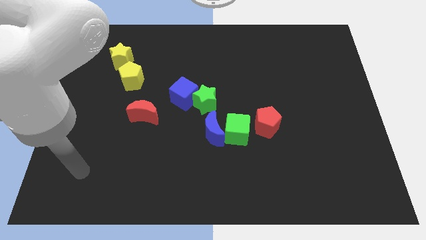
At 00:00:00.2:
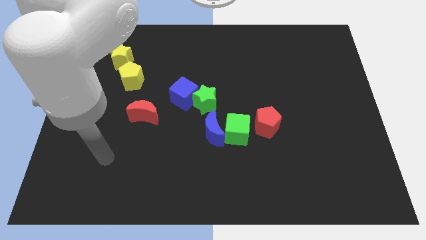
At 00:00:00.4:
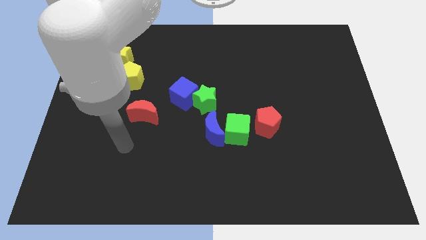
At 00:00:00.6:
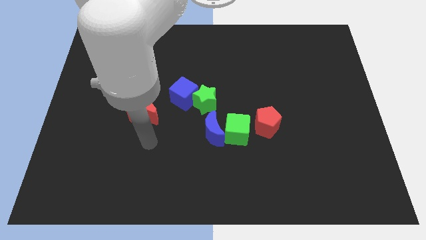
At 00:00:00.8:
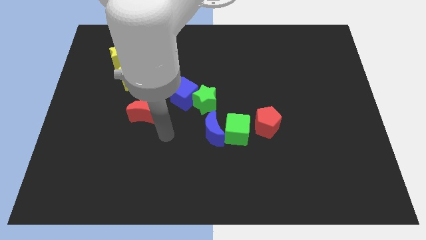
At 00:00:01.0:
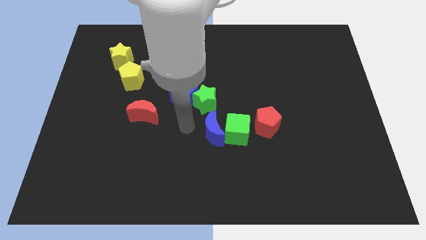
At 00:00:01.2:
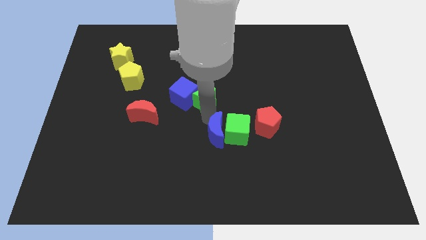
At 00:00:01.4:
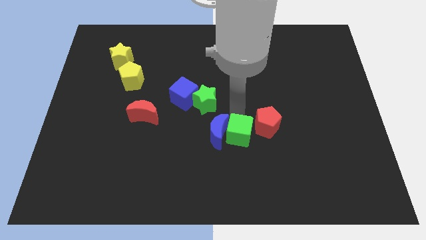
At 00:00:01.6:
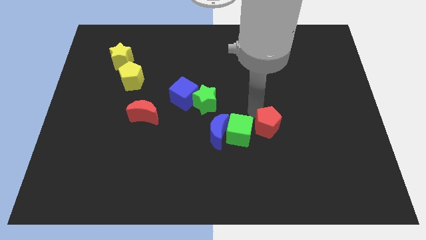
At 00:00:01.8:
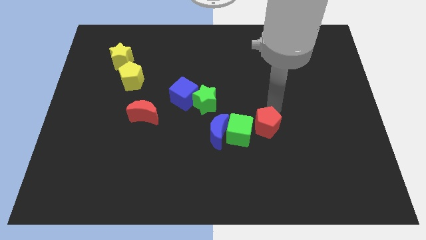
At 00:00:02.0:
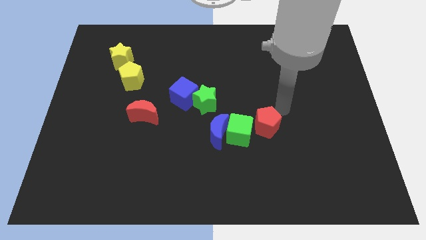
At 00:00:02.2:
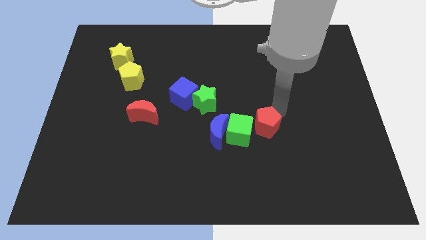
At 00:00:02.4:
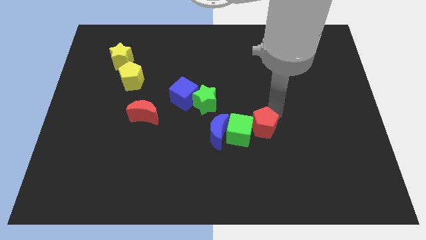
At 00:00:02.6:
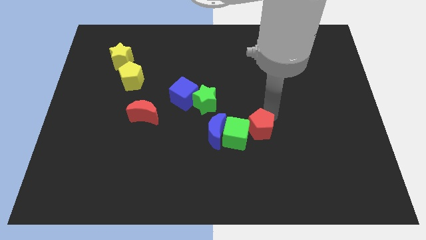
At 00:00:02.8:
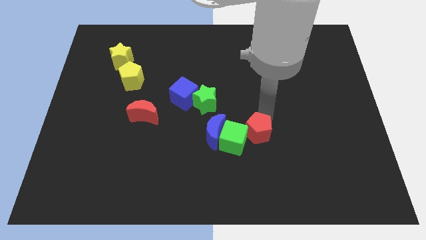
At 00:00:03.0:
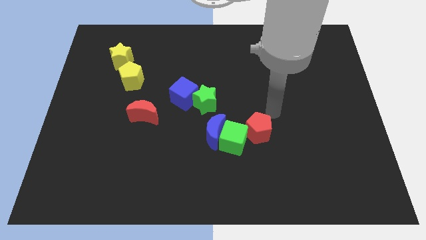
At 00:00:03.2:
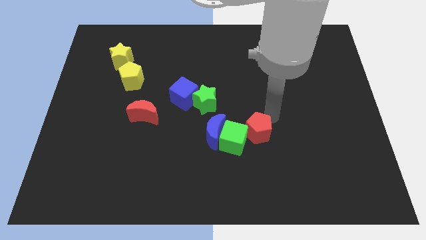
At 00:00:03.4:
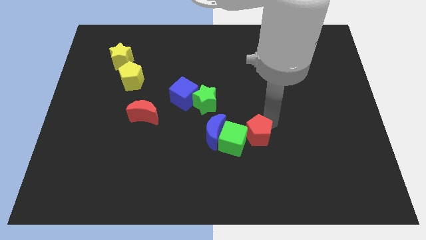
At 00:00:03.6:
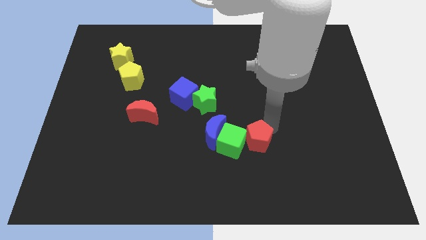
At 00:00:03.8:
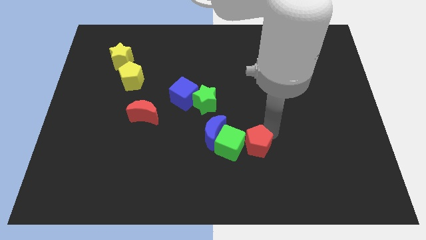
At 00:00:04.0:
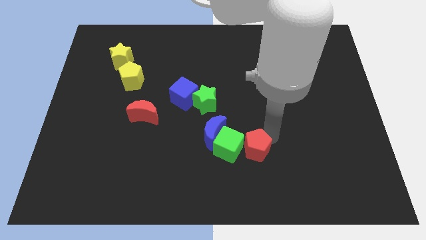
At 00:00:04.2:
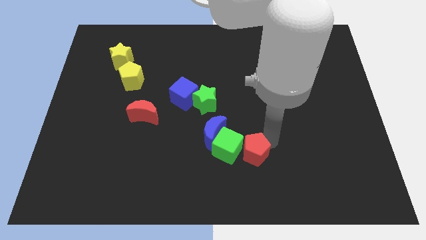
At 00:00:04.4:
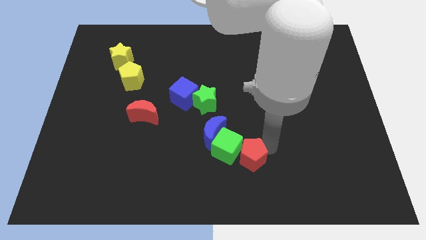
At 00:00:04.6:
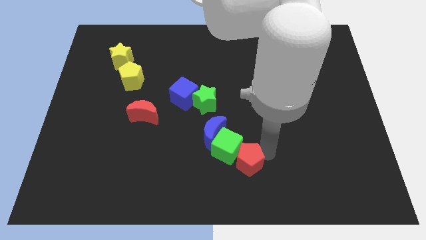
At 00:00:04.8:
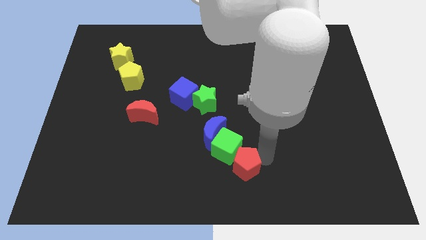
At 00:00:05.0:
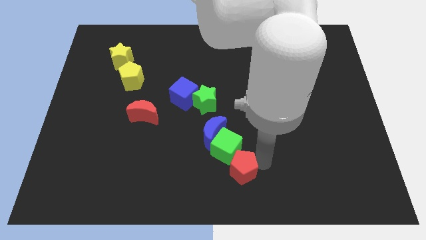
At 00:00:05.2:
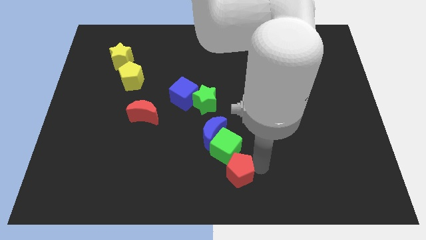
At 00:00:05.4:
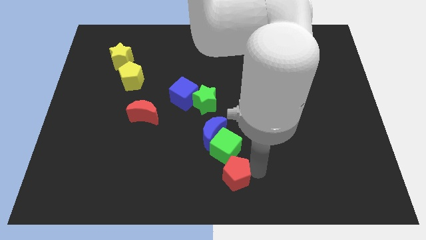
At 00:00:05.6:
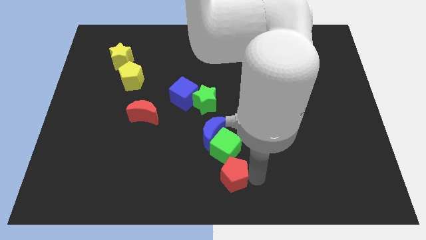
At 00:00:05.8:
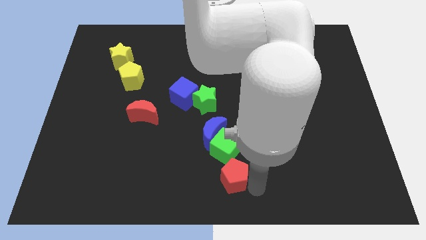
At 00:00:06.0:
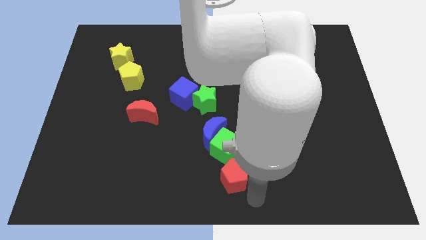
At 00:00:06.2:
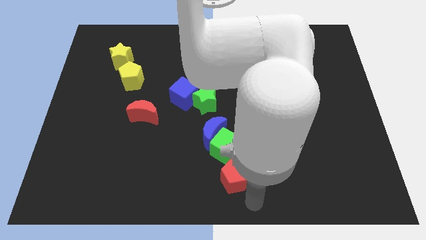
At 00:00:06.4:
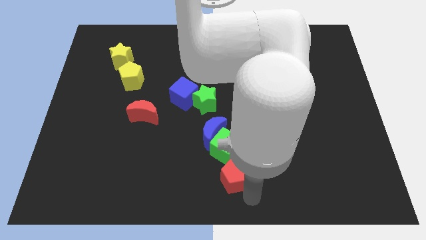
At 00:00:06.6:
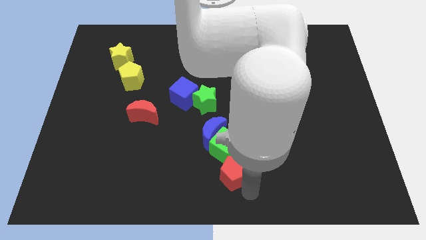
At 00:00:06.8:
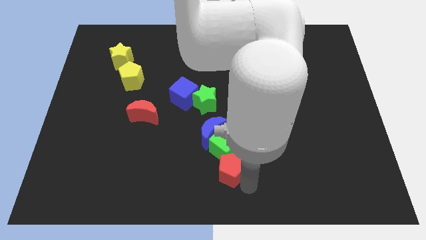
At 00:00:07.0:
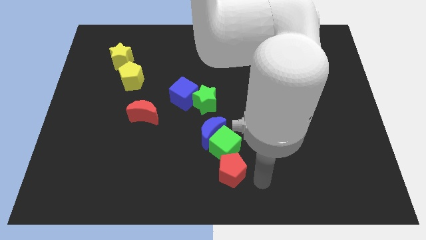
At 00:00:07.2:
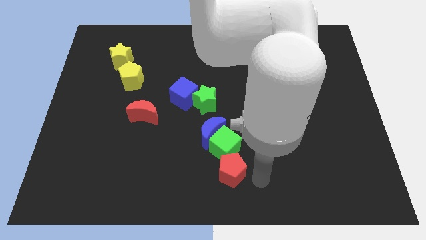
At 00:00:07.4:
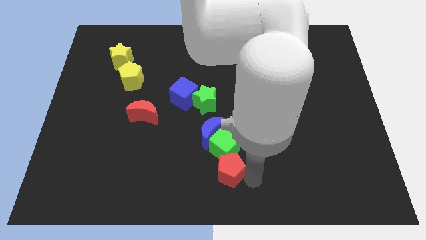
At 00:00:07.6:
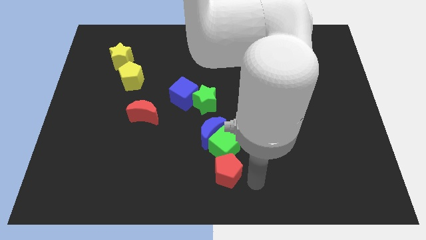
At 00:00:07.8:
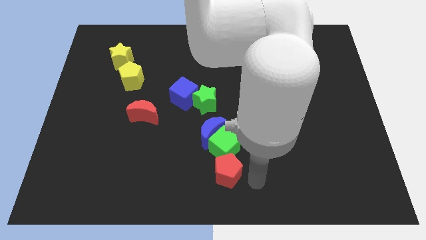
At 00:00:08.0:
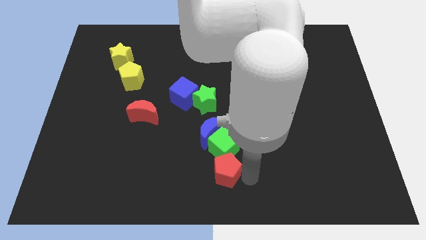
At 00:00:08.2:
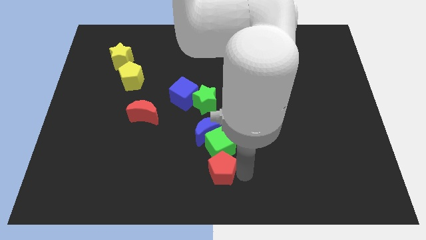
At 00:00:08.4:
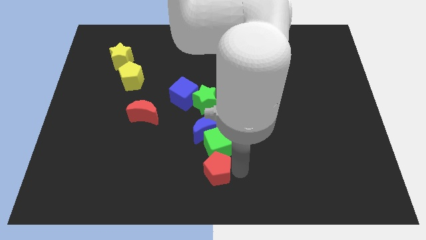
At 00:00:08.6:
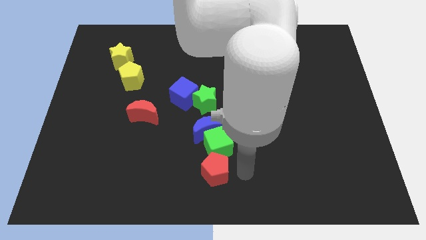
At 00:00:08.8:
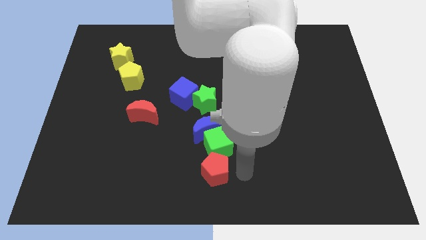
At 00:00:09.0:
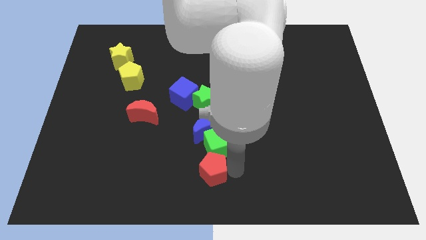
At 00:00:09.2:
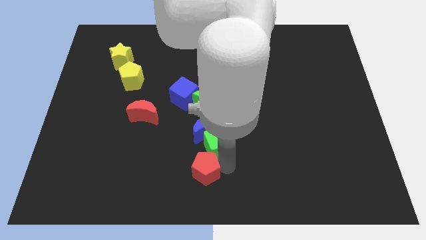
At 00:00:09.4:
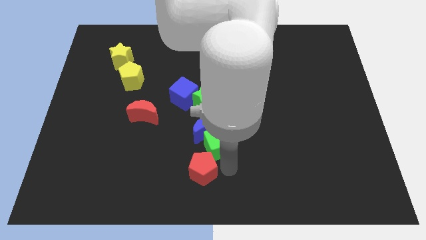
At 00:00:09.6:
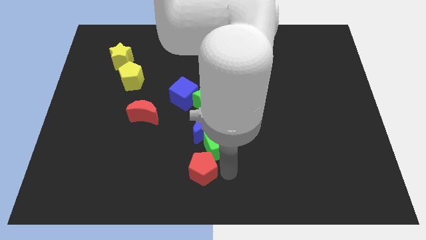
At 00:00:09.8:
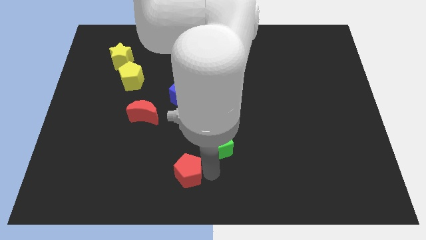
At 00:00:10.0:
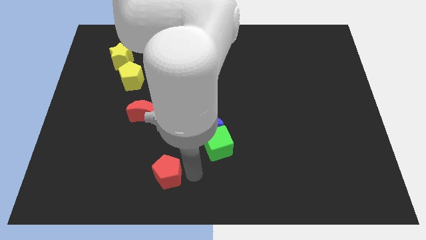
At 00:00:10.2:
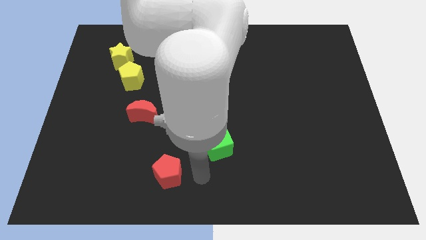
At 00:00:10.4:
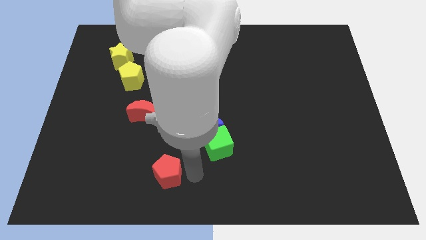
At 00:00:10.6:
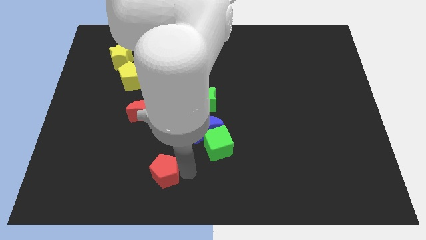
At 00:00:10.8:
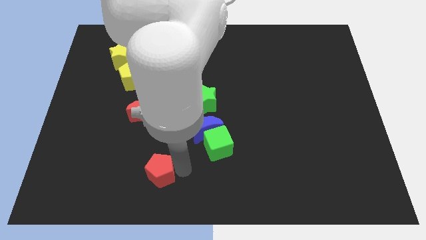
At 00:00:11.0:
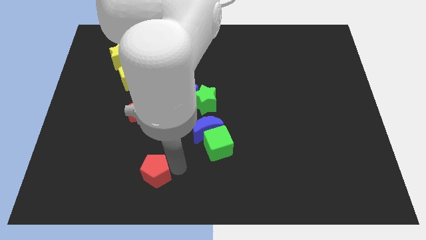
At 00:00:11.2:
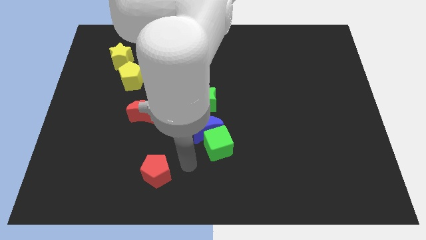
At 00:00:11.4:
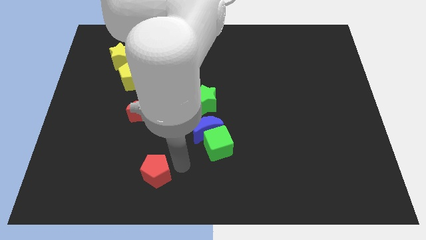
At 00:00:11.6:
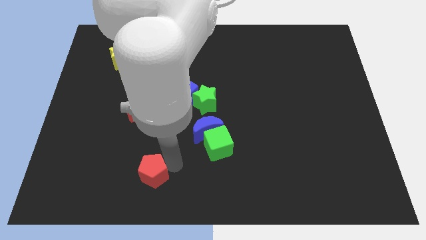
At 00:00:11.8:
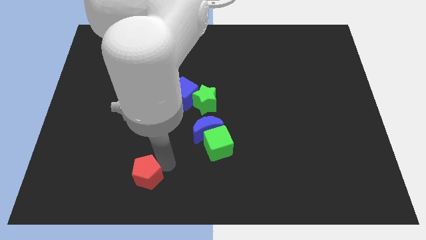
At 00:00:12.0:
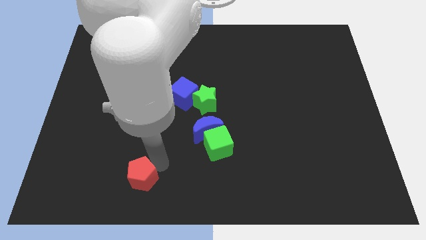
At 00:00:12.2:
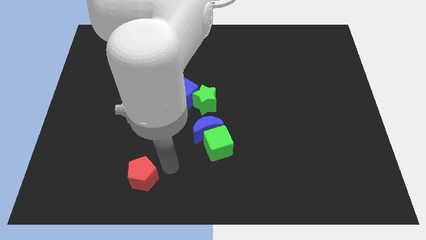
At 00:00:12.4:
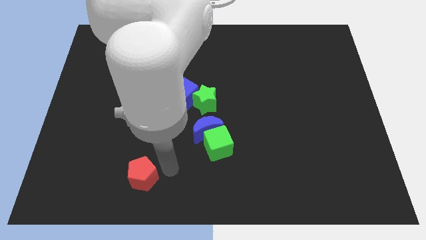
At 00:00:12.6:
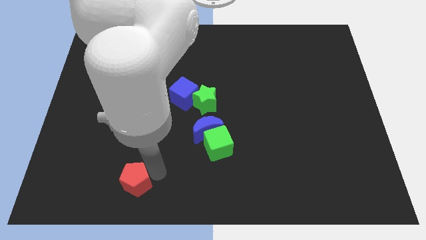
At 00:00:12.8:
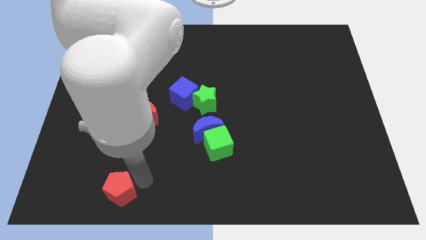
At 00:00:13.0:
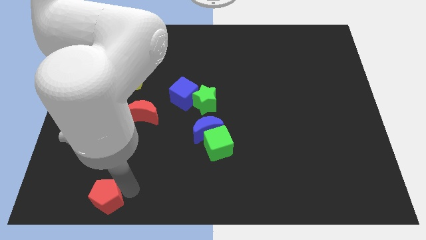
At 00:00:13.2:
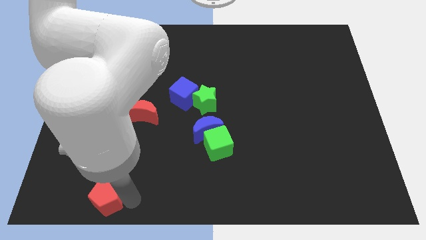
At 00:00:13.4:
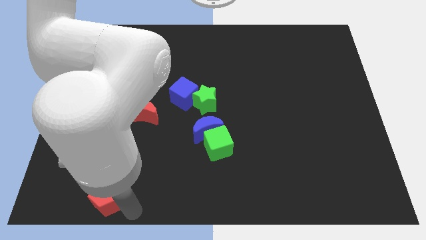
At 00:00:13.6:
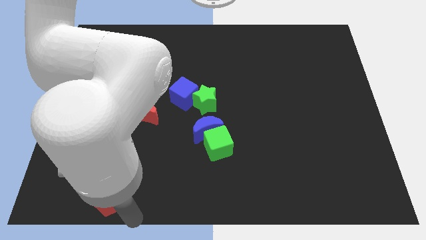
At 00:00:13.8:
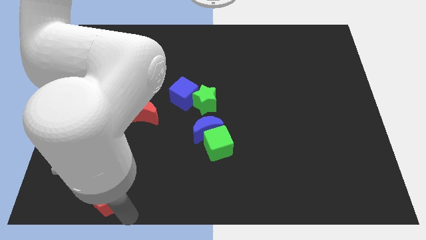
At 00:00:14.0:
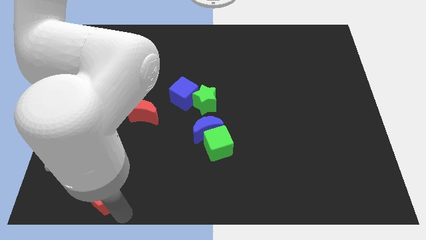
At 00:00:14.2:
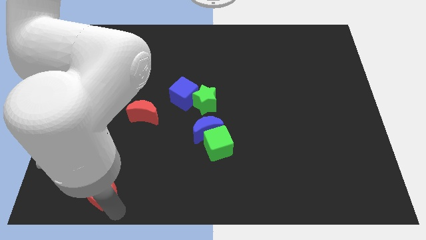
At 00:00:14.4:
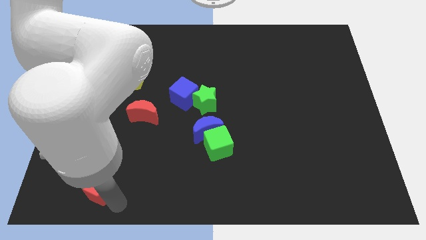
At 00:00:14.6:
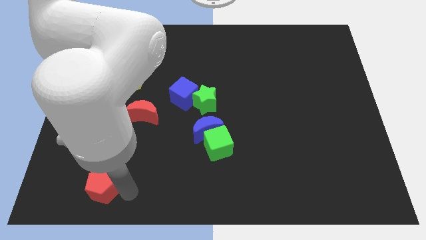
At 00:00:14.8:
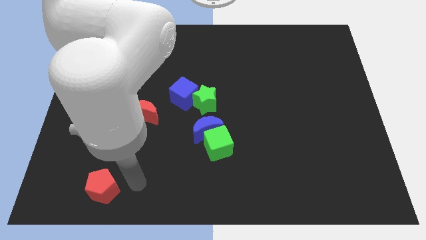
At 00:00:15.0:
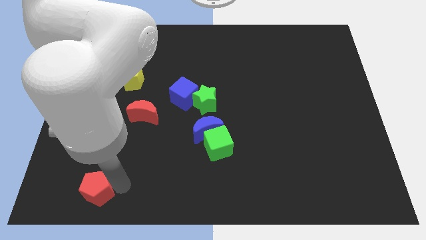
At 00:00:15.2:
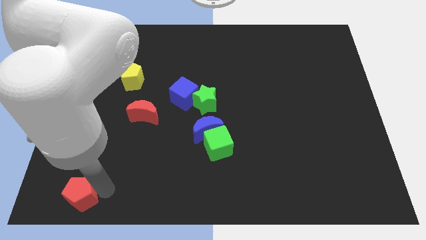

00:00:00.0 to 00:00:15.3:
push the red pentagon to the lower left corner
